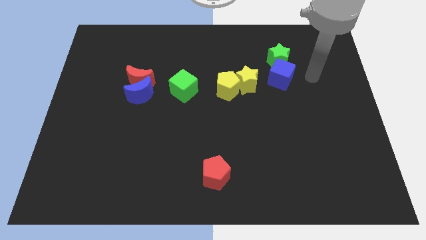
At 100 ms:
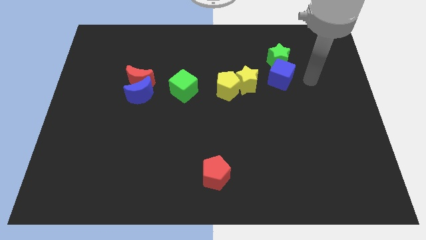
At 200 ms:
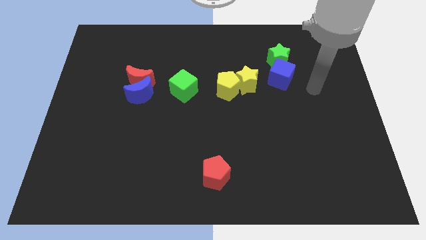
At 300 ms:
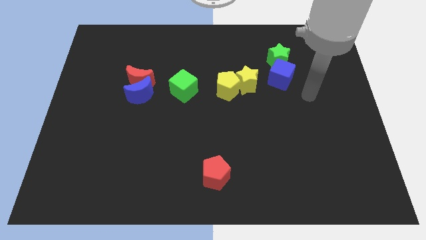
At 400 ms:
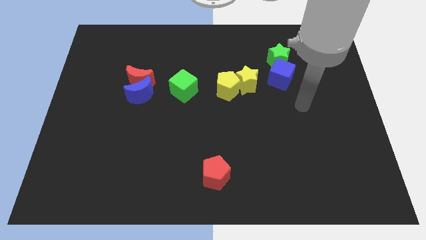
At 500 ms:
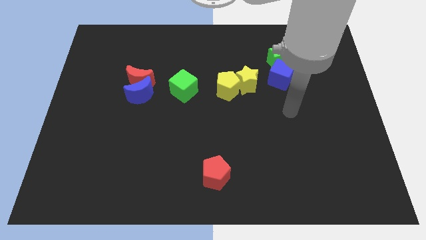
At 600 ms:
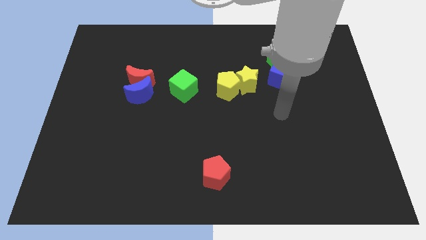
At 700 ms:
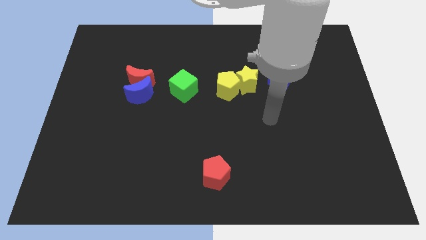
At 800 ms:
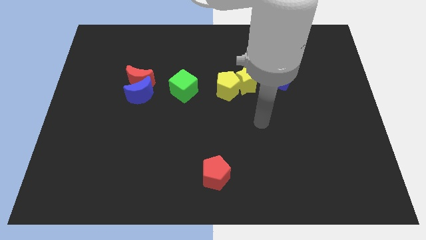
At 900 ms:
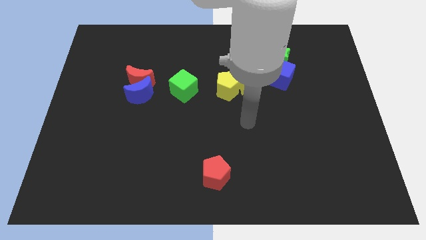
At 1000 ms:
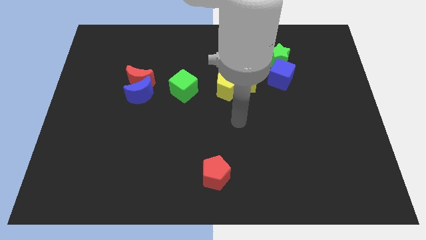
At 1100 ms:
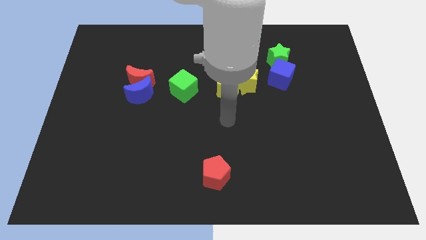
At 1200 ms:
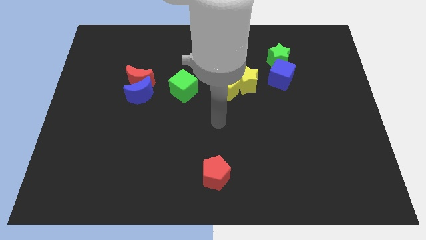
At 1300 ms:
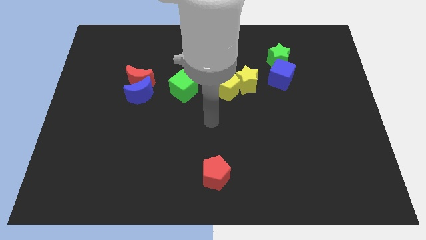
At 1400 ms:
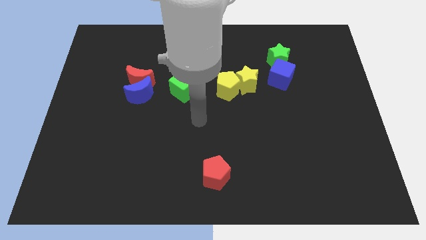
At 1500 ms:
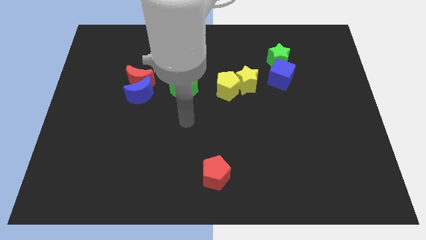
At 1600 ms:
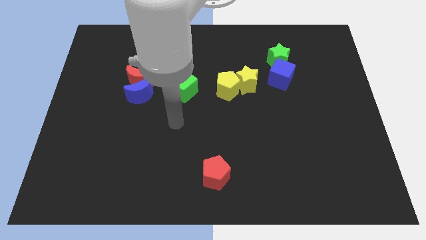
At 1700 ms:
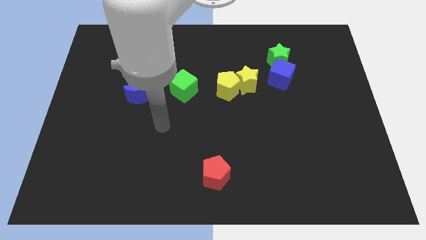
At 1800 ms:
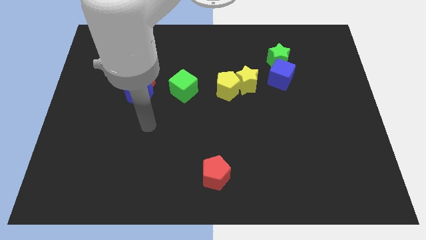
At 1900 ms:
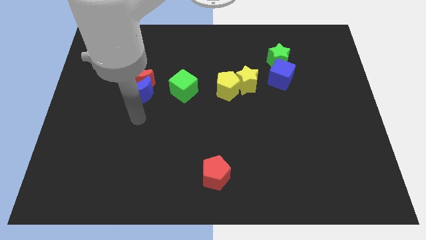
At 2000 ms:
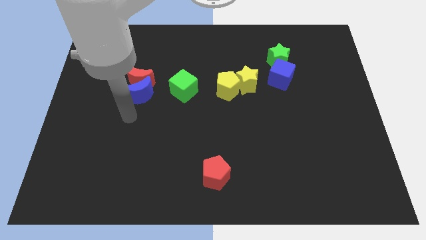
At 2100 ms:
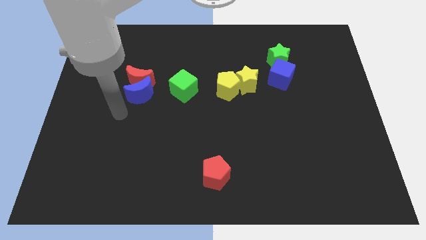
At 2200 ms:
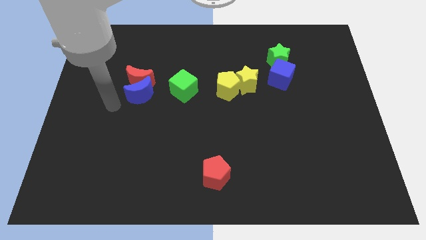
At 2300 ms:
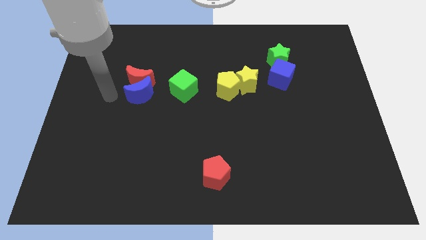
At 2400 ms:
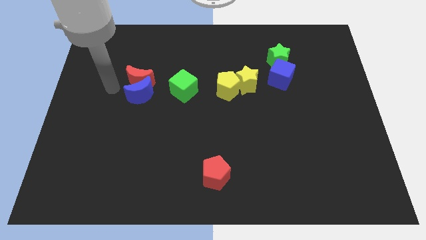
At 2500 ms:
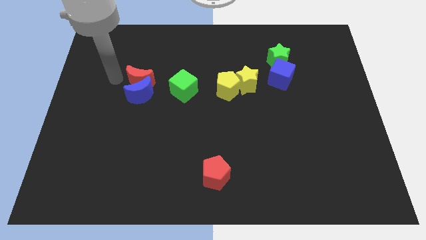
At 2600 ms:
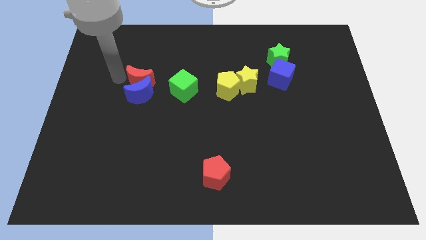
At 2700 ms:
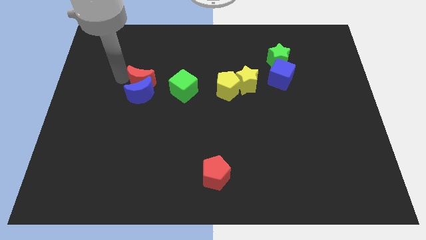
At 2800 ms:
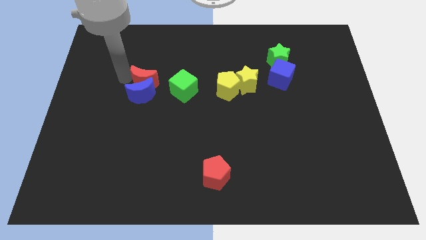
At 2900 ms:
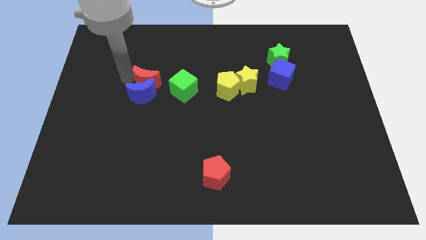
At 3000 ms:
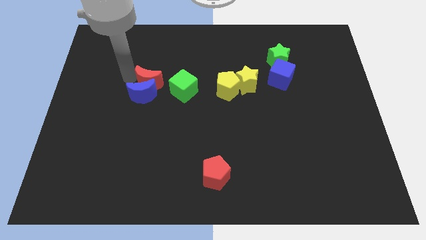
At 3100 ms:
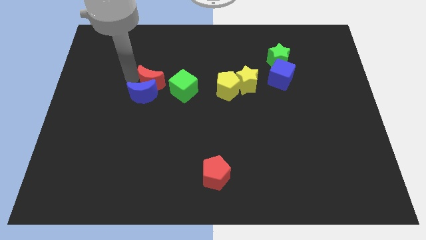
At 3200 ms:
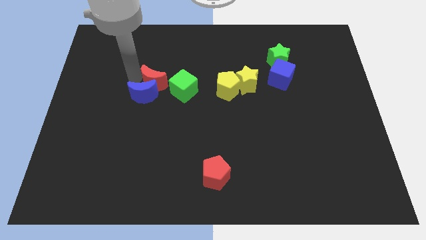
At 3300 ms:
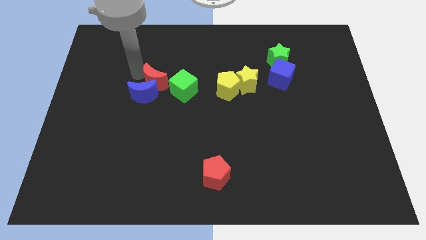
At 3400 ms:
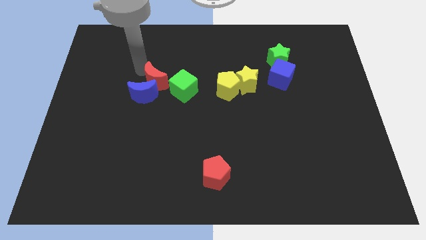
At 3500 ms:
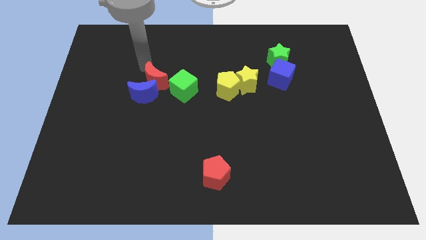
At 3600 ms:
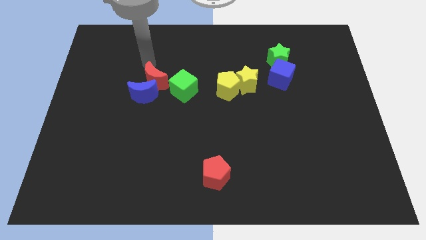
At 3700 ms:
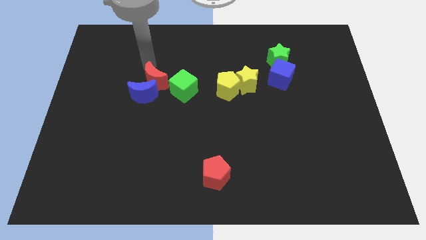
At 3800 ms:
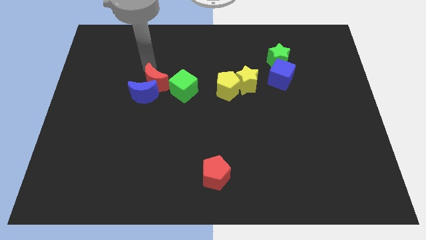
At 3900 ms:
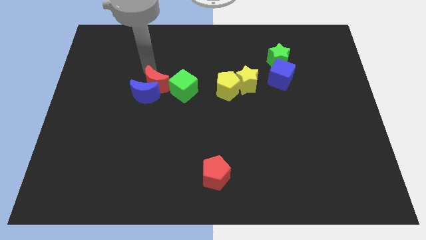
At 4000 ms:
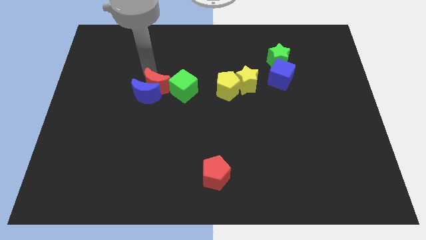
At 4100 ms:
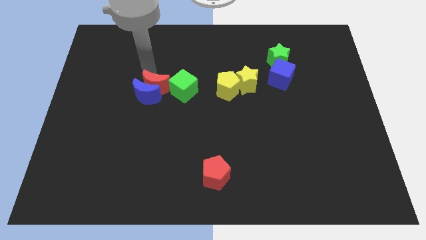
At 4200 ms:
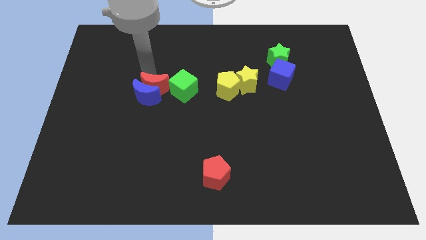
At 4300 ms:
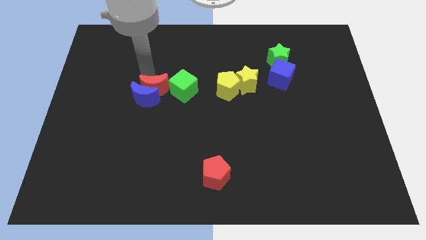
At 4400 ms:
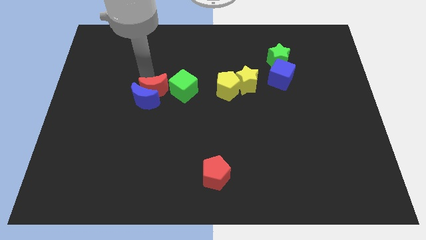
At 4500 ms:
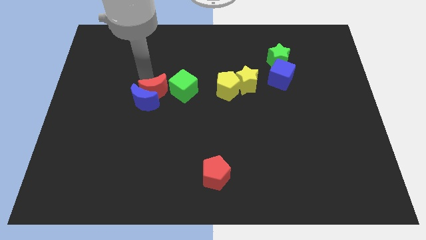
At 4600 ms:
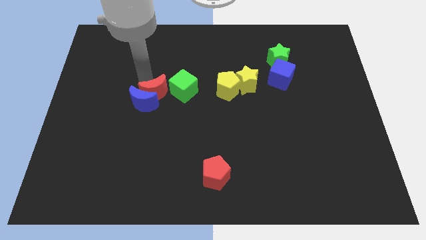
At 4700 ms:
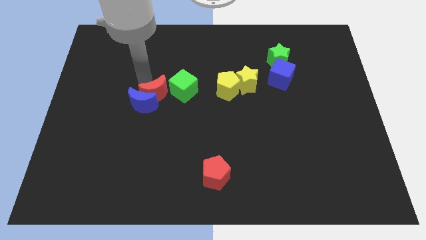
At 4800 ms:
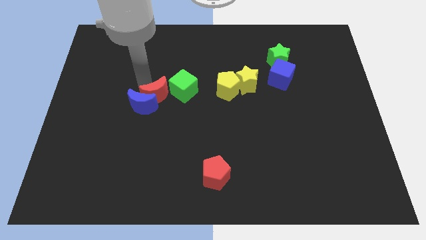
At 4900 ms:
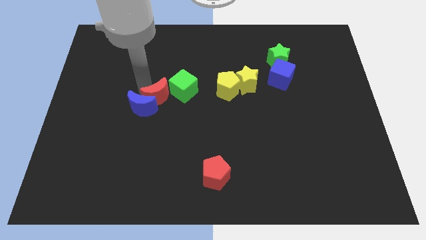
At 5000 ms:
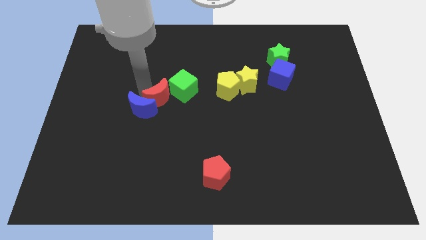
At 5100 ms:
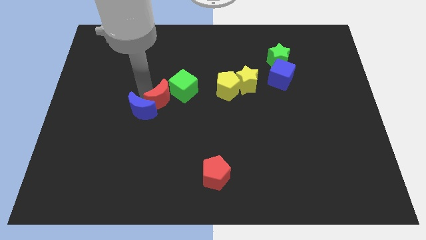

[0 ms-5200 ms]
slide the red moon to the center

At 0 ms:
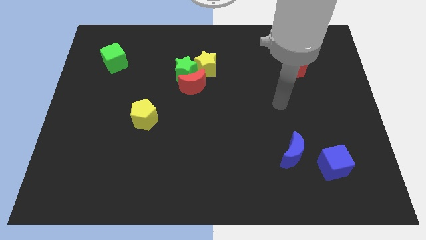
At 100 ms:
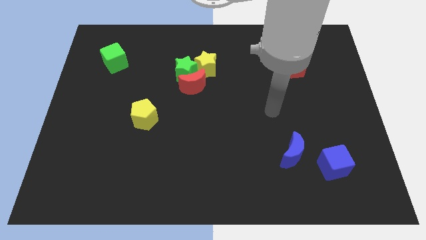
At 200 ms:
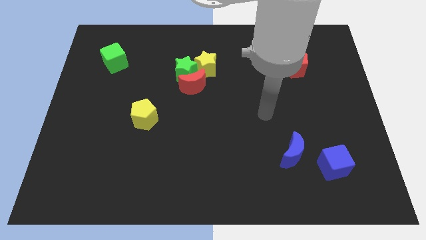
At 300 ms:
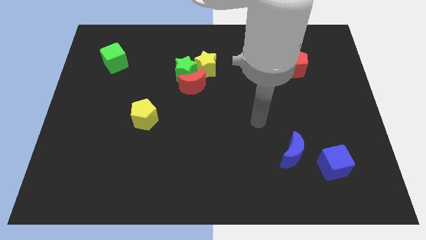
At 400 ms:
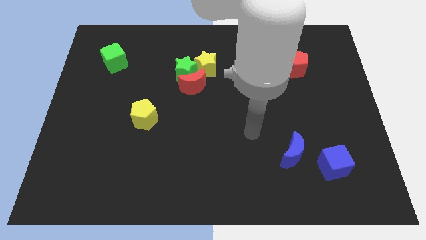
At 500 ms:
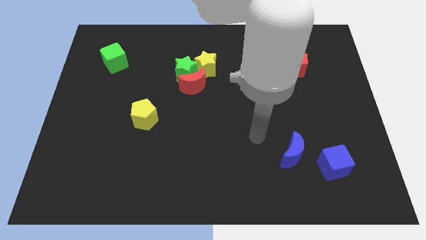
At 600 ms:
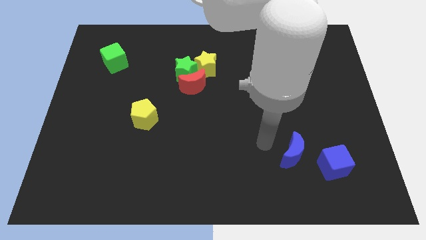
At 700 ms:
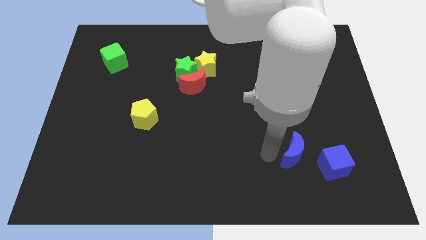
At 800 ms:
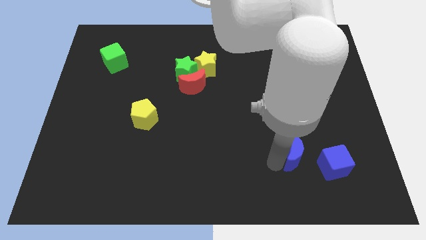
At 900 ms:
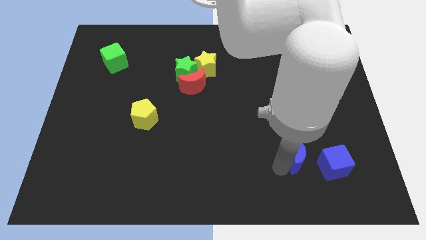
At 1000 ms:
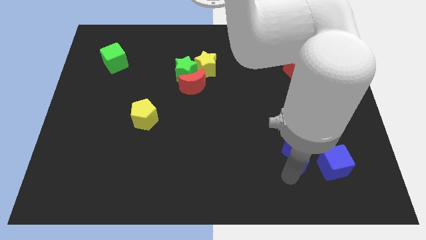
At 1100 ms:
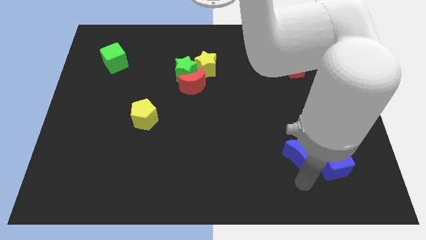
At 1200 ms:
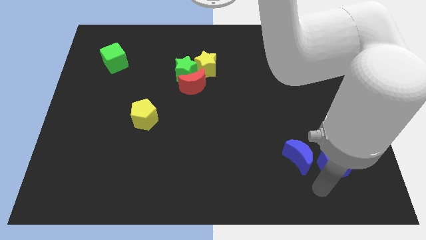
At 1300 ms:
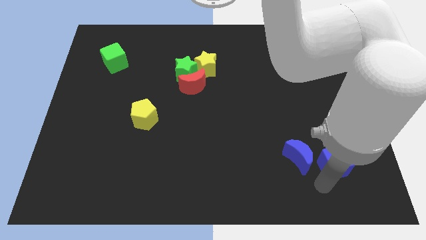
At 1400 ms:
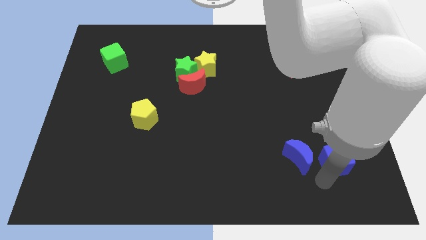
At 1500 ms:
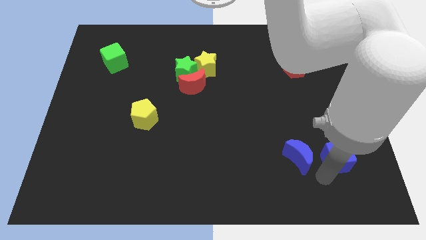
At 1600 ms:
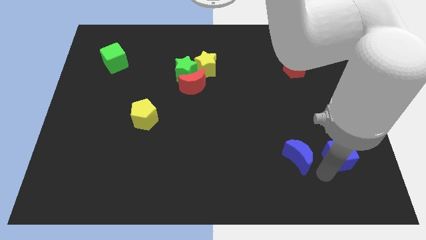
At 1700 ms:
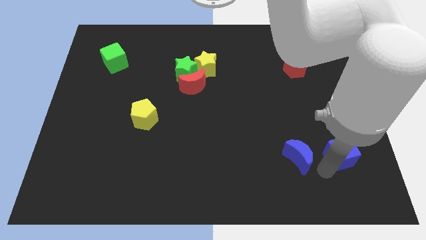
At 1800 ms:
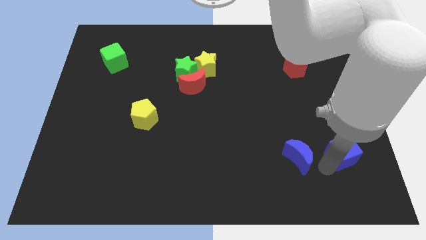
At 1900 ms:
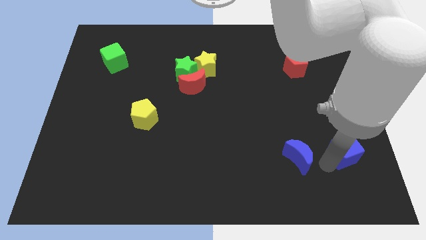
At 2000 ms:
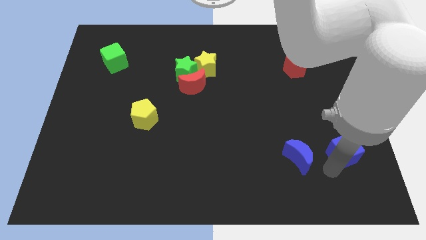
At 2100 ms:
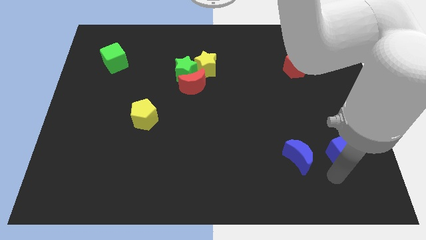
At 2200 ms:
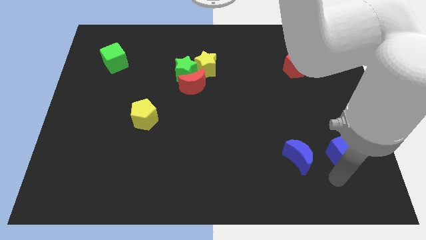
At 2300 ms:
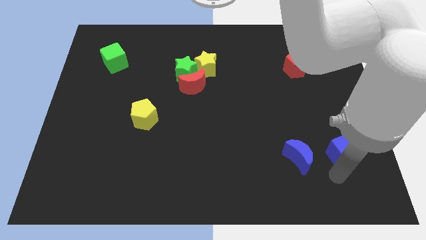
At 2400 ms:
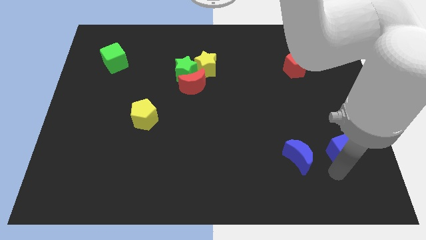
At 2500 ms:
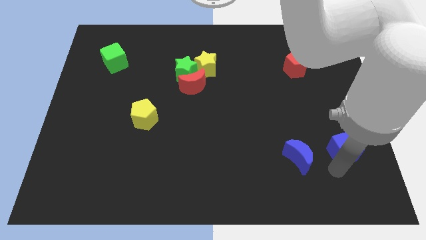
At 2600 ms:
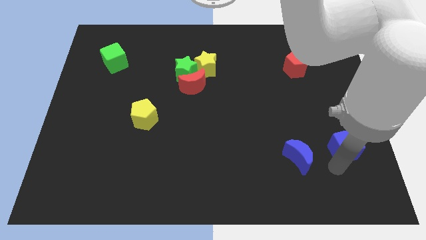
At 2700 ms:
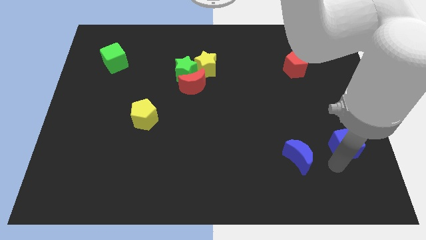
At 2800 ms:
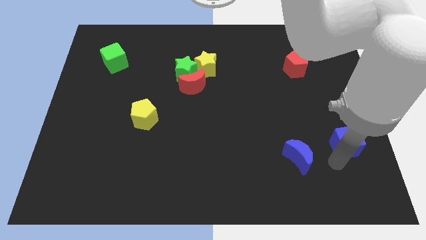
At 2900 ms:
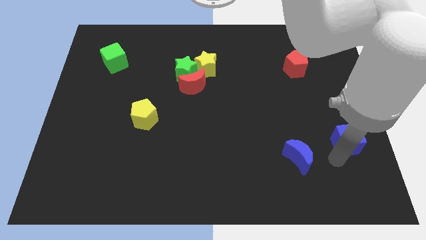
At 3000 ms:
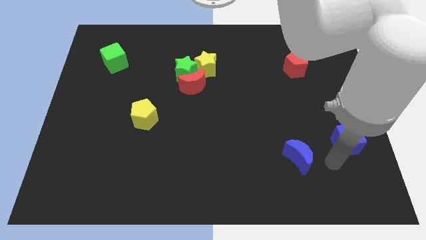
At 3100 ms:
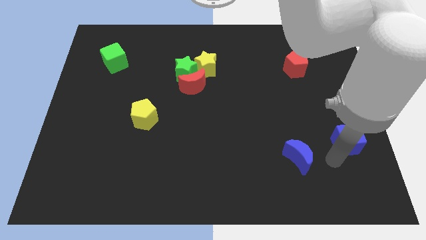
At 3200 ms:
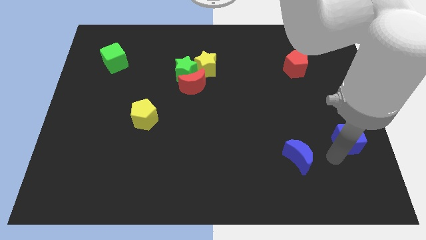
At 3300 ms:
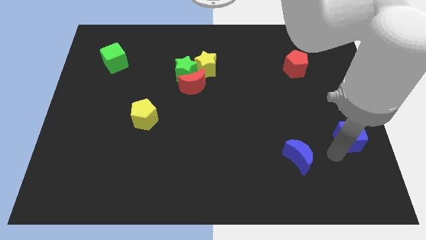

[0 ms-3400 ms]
slide the blue cube to the right side of the board
